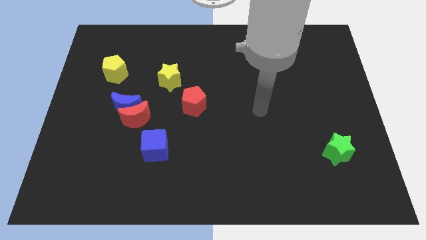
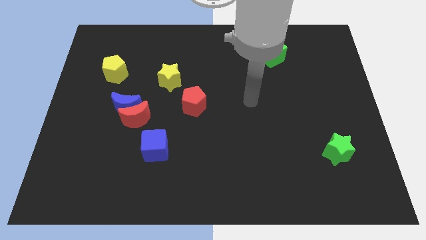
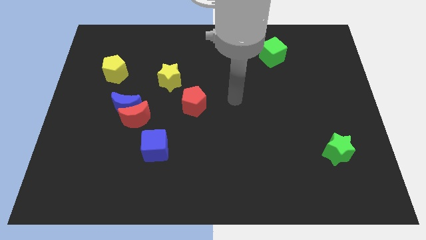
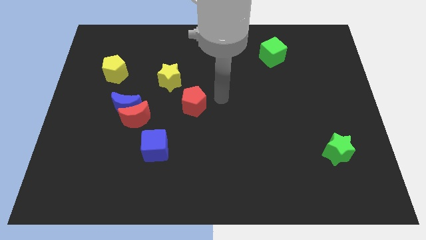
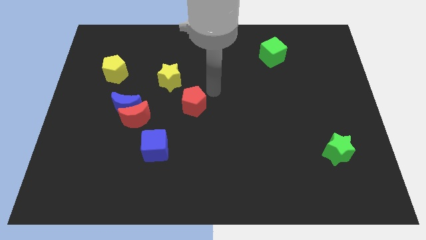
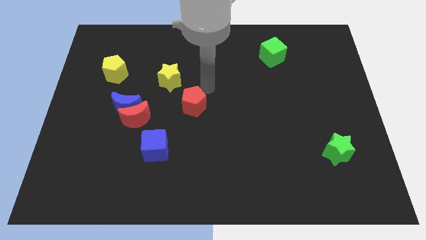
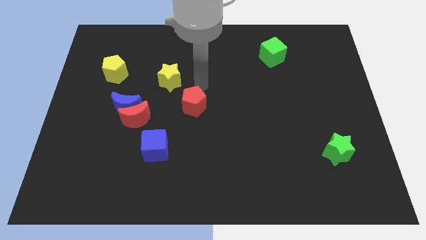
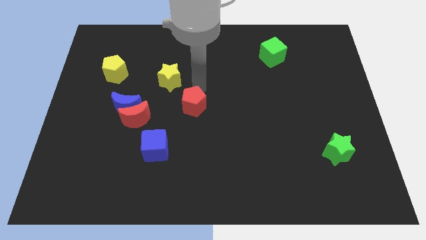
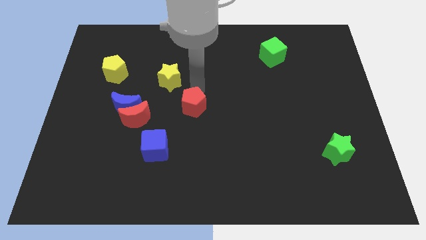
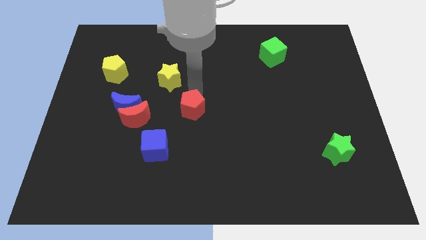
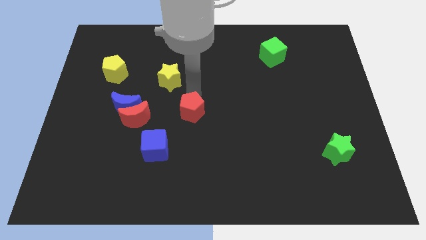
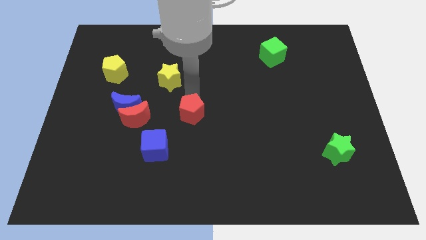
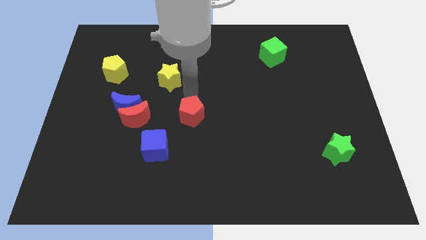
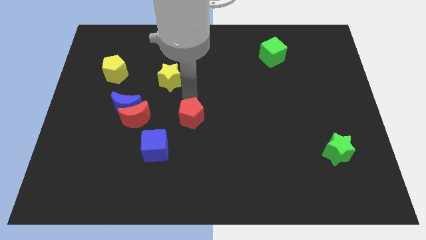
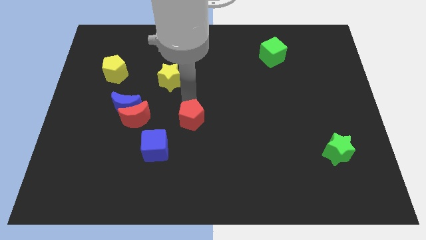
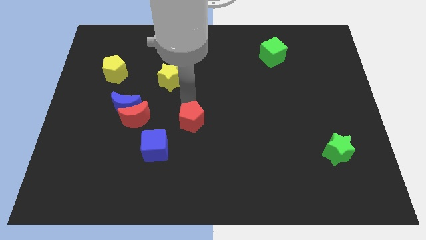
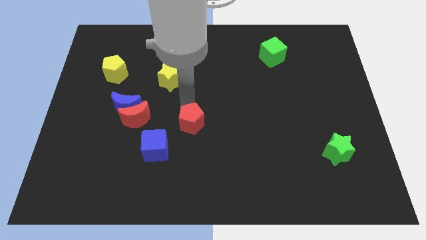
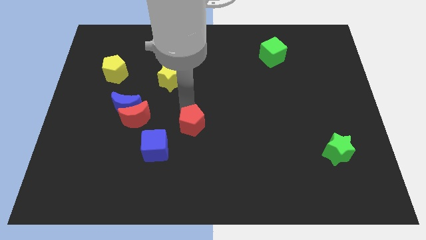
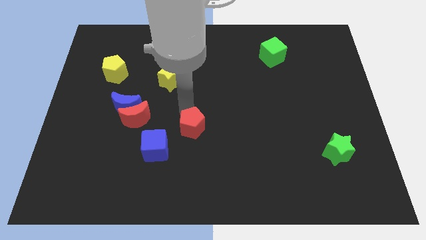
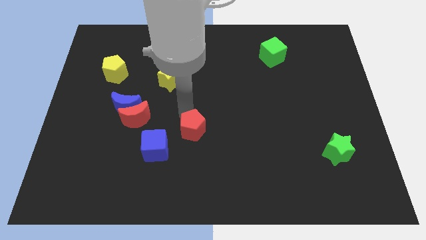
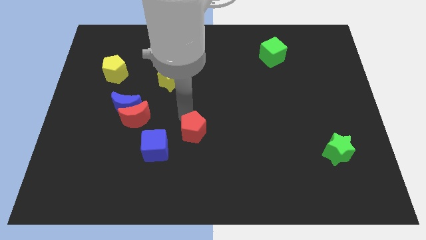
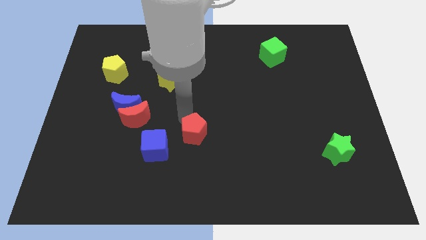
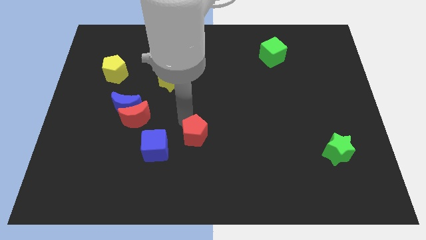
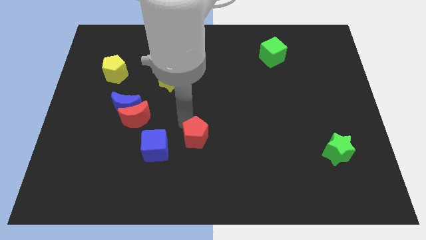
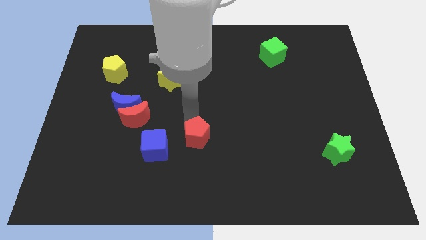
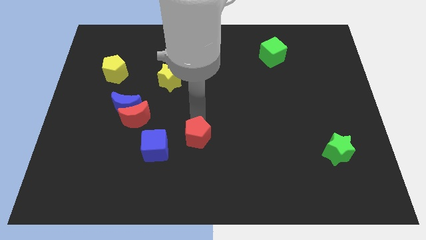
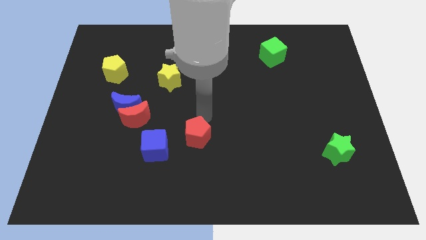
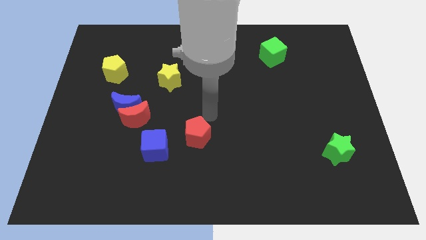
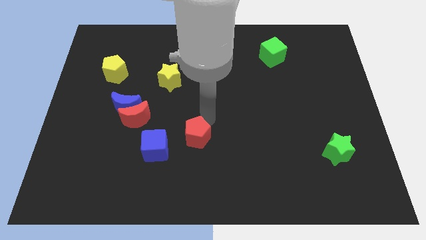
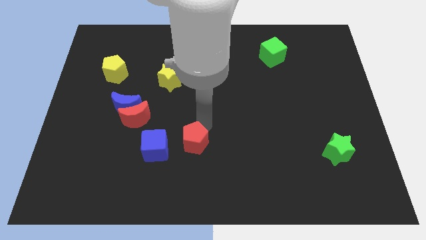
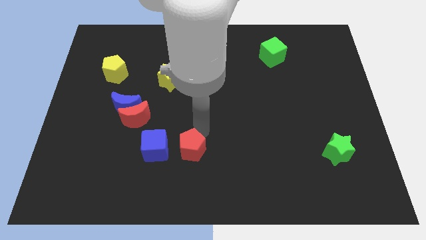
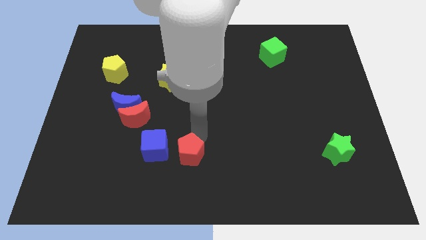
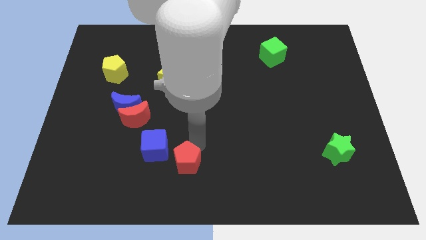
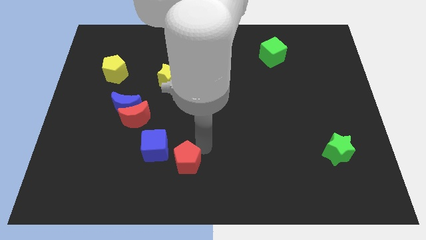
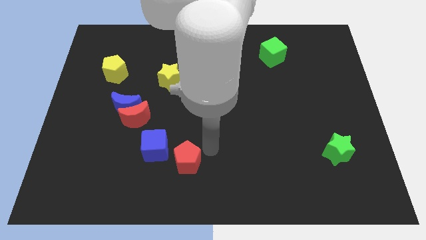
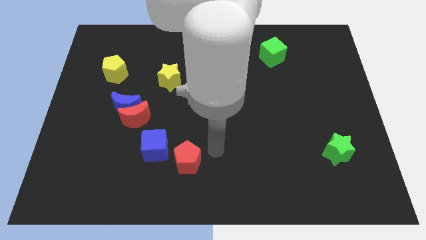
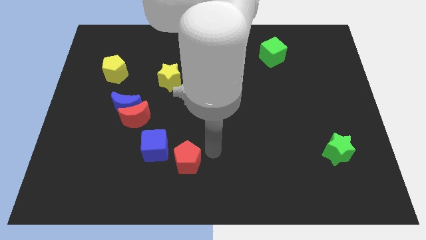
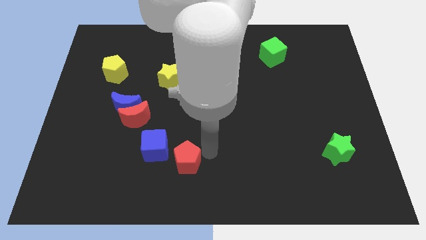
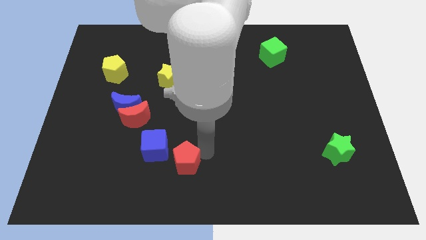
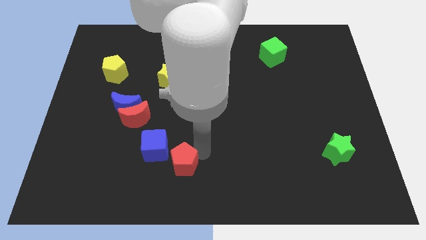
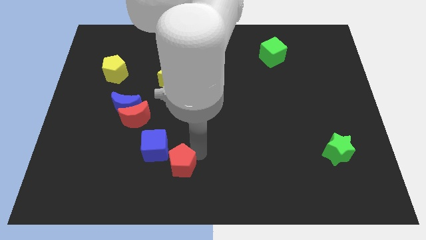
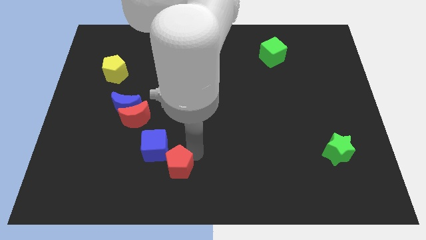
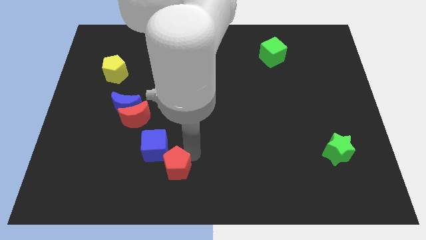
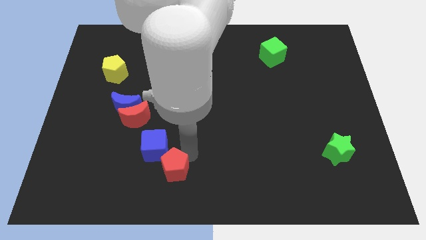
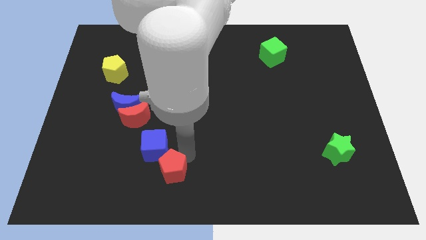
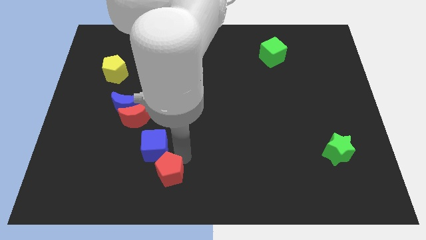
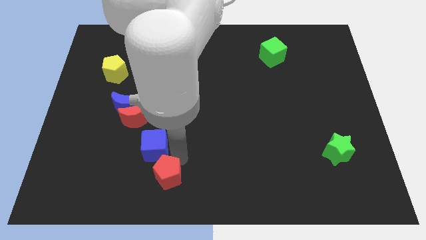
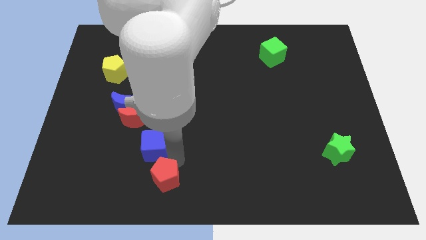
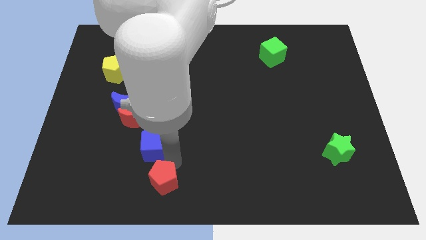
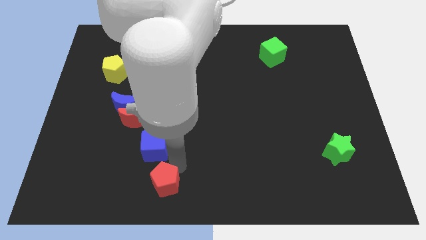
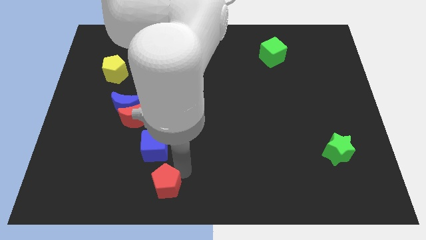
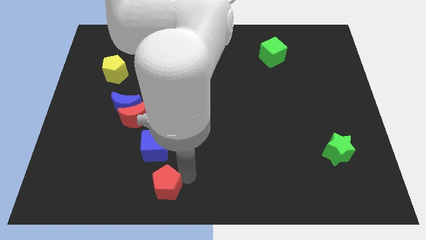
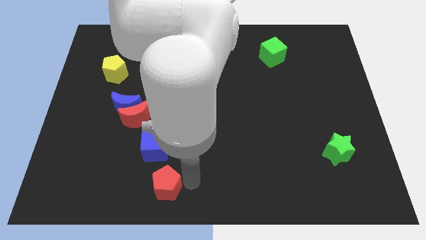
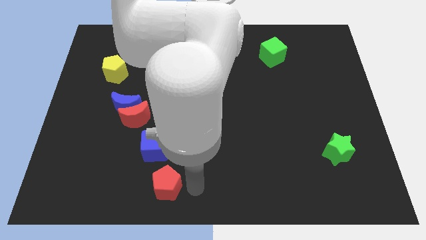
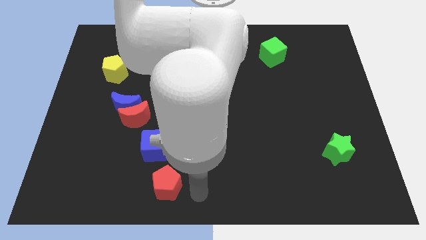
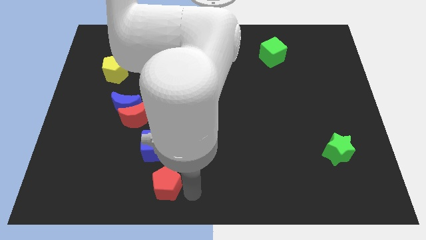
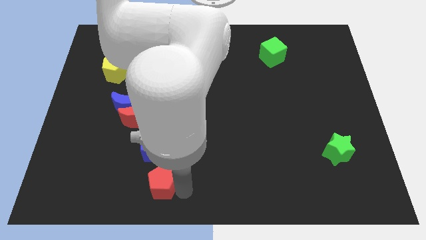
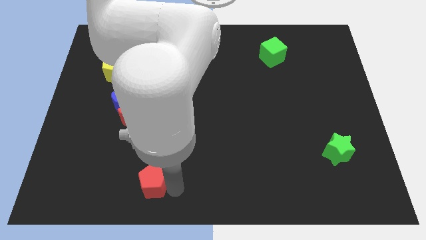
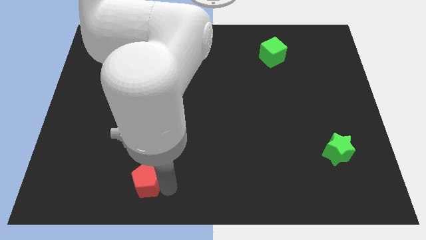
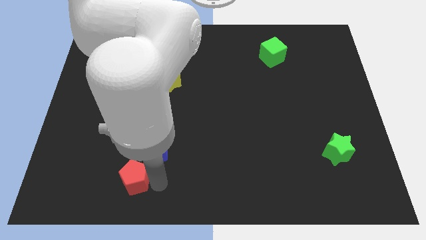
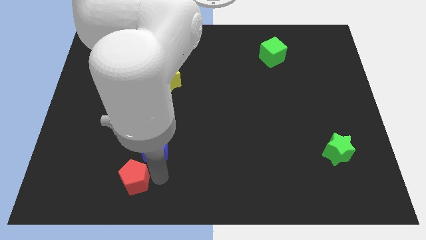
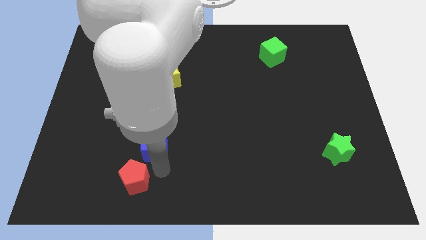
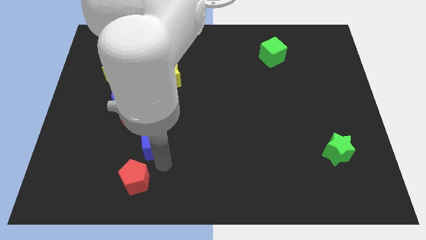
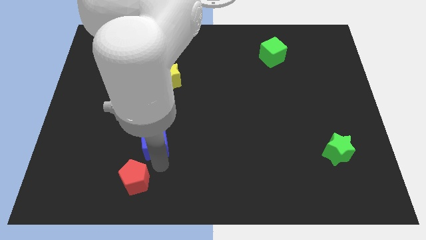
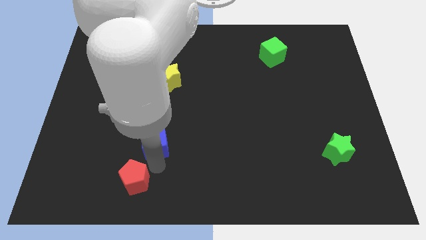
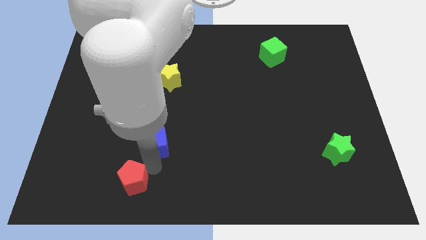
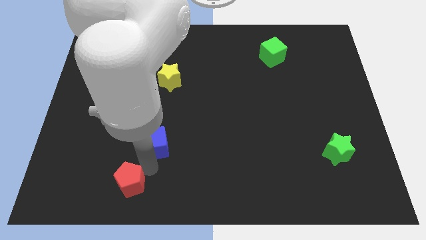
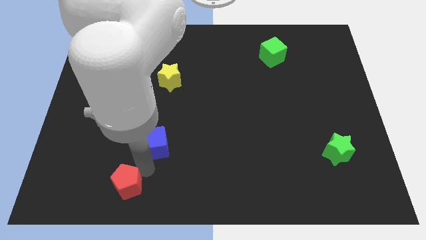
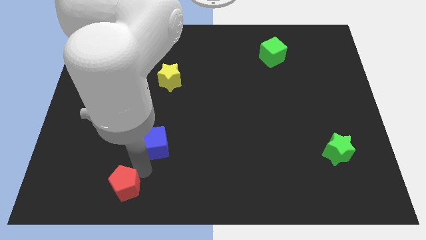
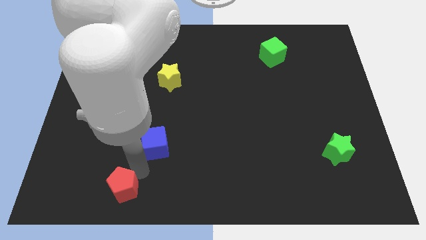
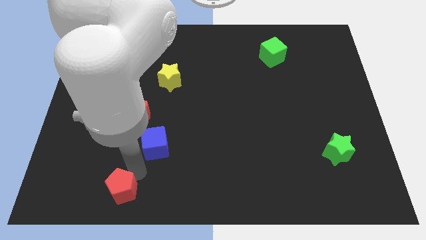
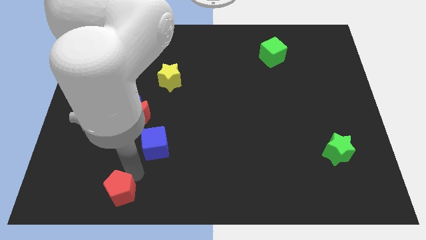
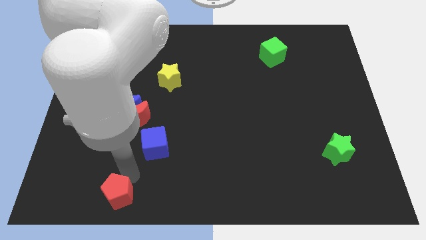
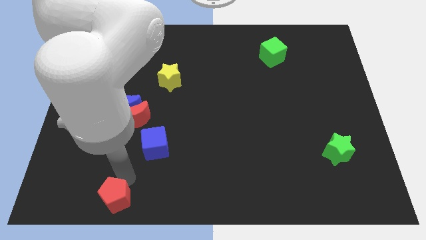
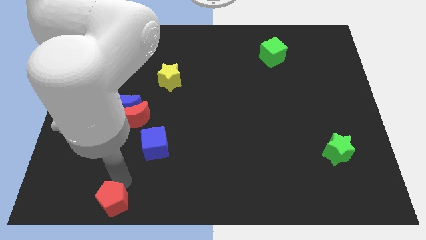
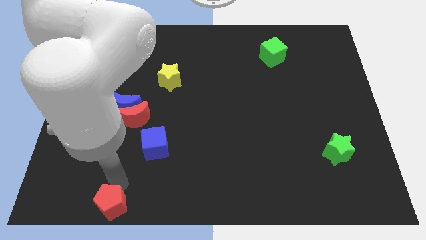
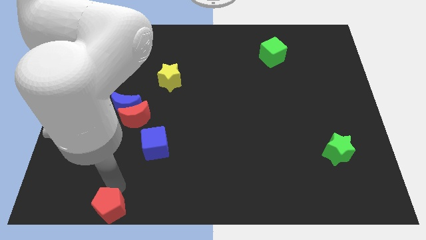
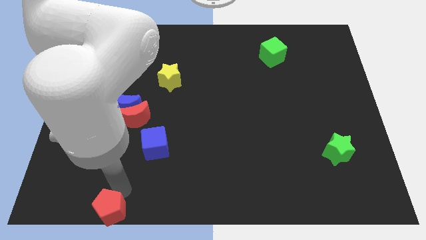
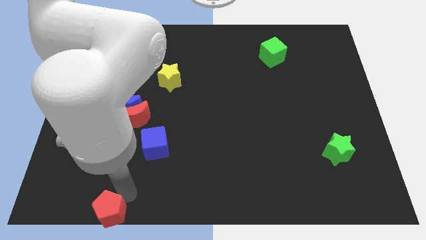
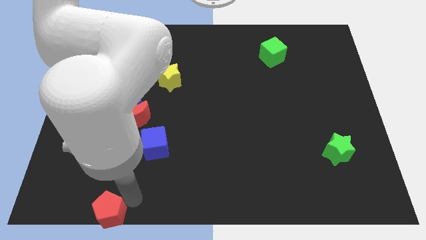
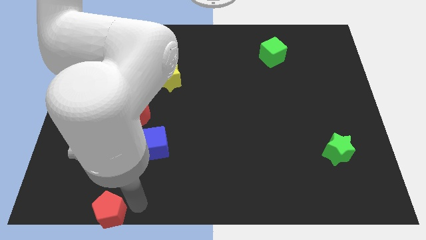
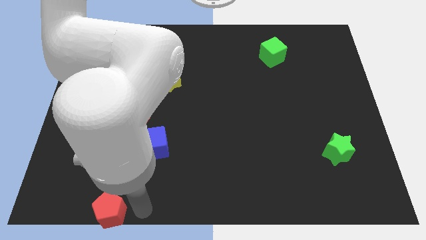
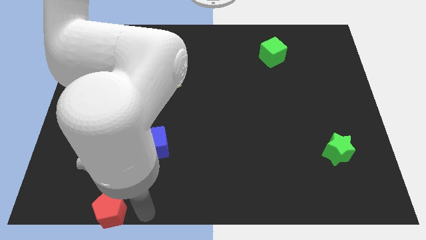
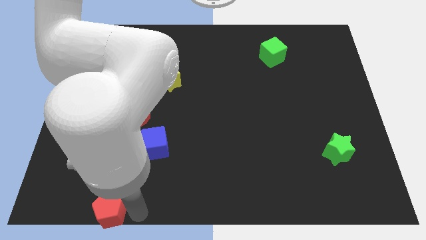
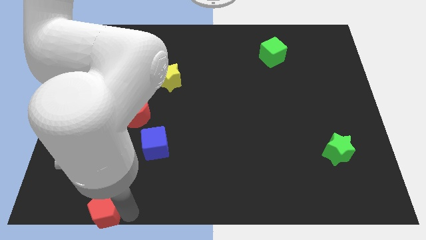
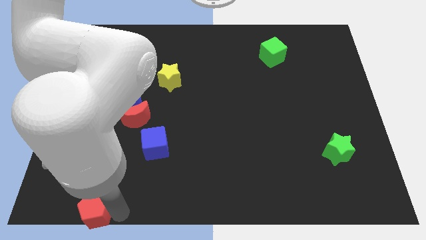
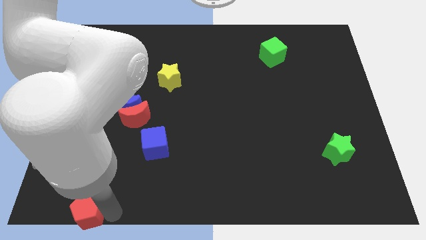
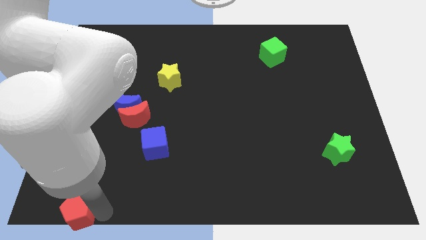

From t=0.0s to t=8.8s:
move the red pentagon to the bottom left of the board
